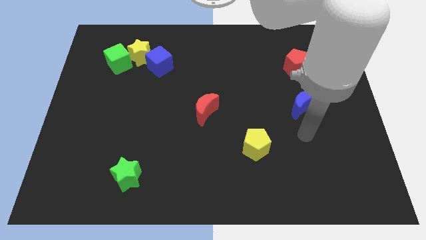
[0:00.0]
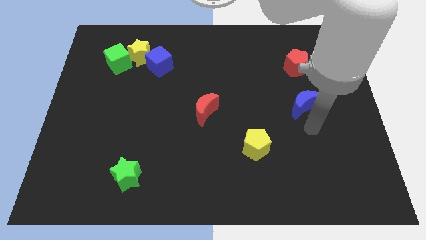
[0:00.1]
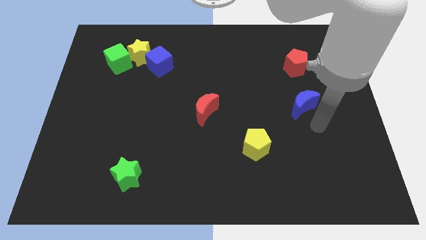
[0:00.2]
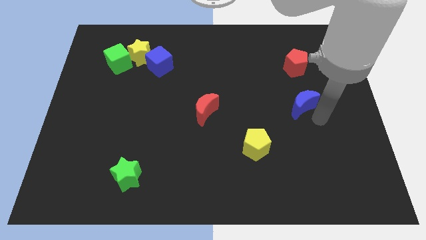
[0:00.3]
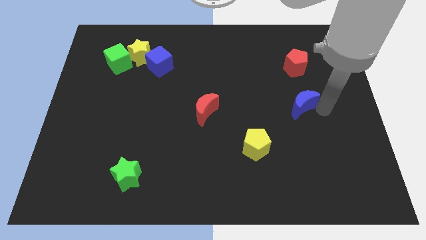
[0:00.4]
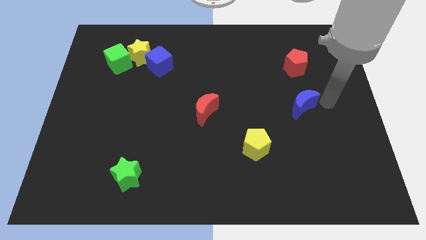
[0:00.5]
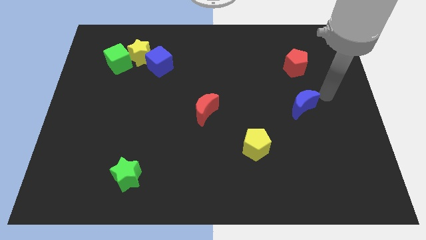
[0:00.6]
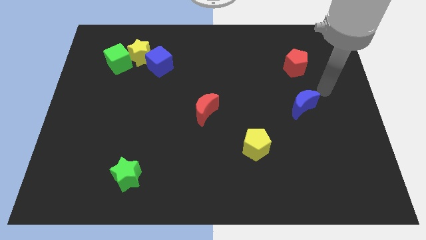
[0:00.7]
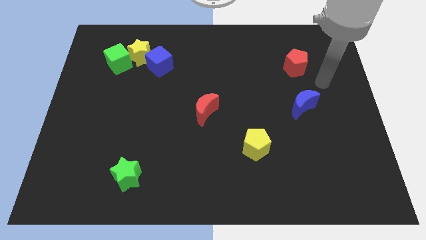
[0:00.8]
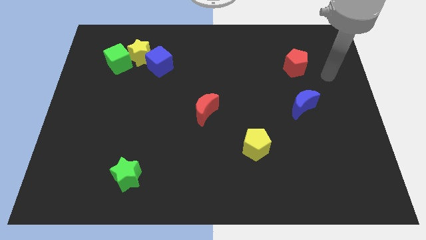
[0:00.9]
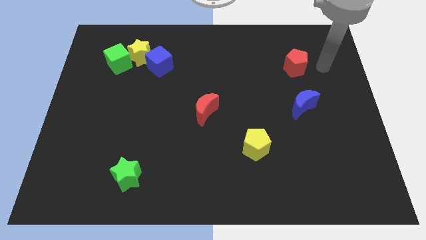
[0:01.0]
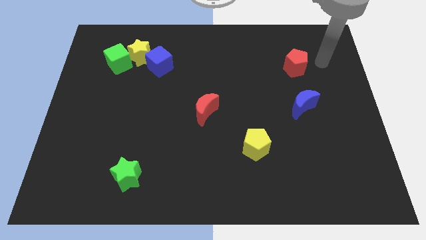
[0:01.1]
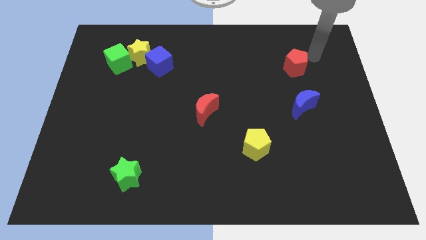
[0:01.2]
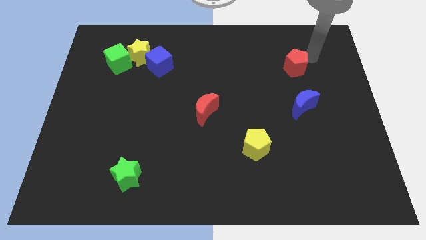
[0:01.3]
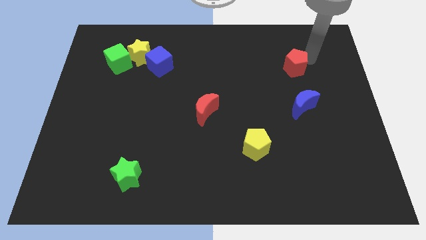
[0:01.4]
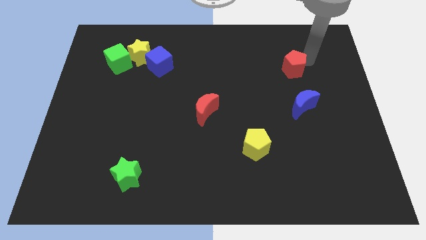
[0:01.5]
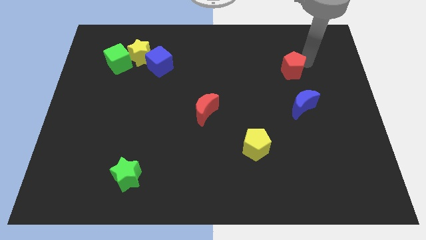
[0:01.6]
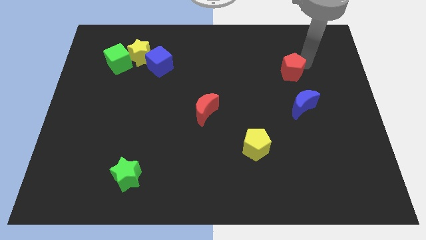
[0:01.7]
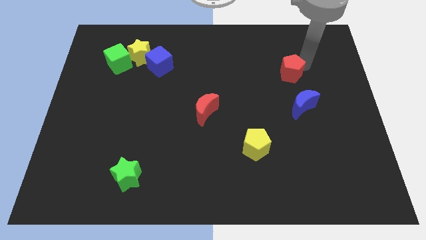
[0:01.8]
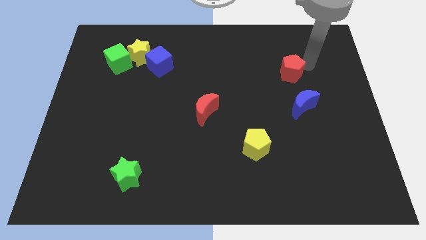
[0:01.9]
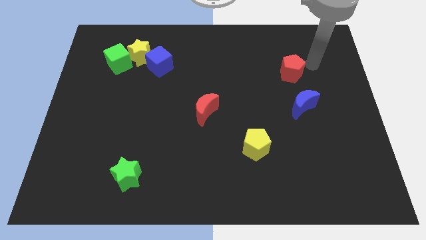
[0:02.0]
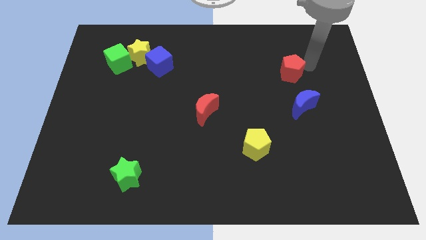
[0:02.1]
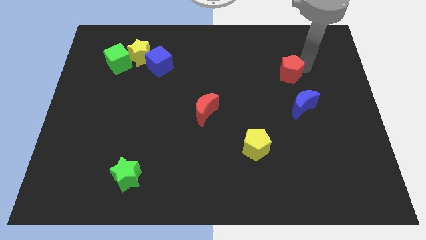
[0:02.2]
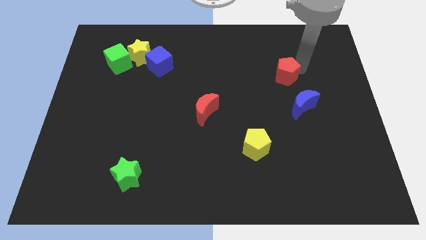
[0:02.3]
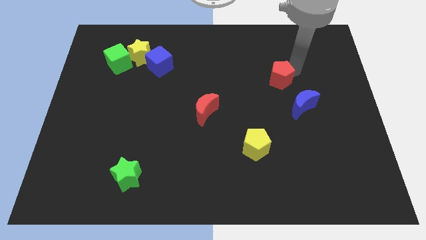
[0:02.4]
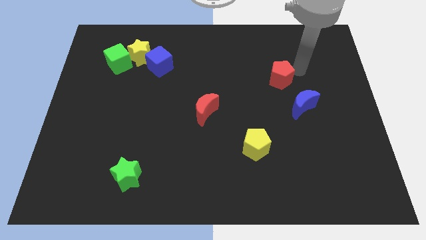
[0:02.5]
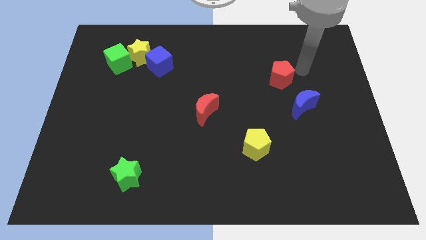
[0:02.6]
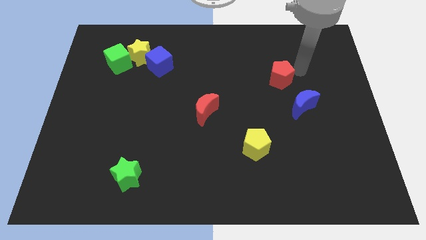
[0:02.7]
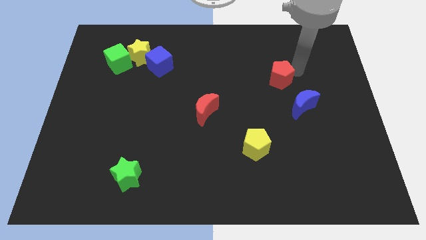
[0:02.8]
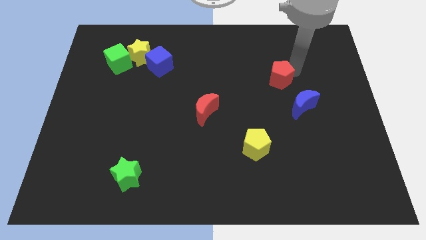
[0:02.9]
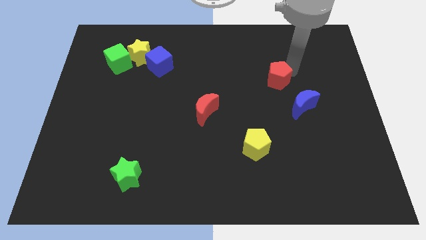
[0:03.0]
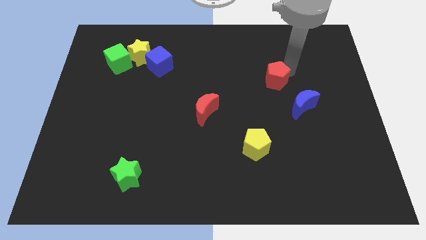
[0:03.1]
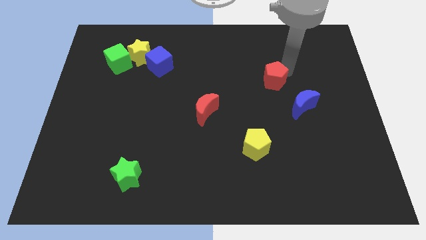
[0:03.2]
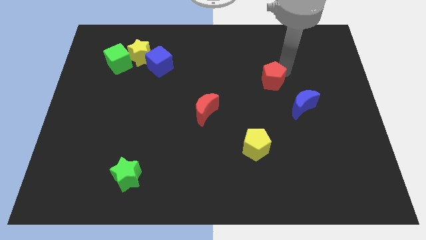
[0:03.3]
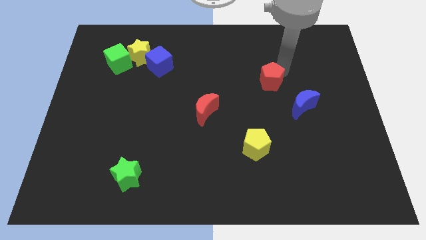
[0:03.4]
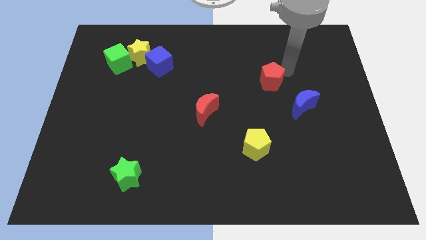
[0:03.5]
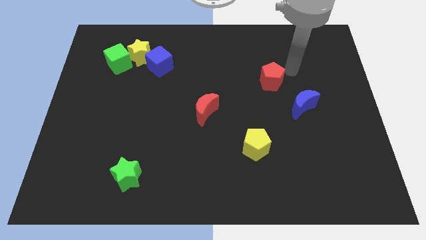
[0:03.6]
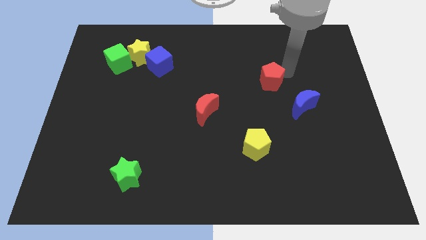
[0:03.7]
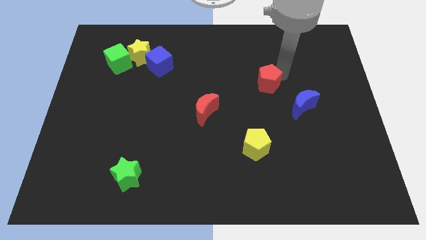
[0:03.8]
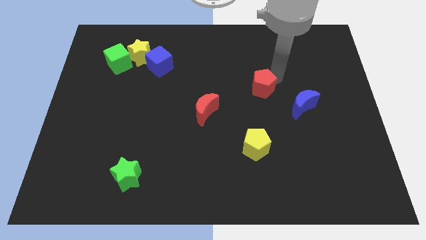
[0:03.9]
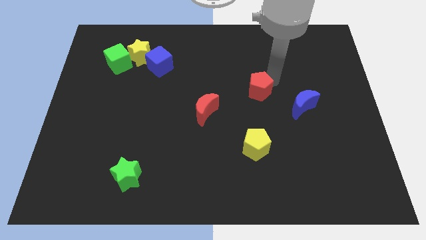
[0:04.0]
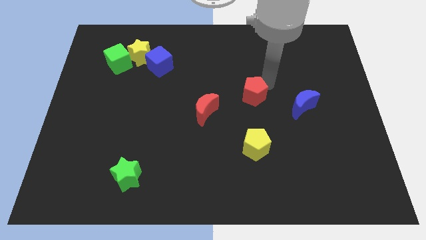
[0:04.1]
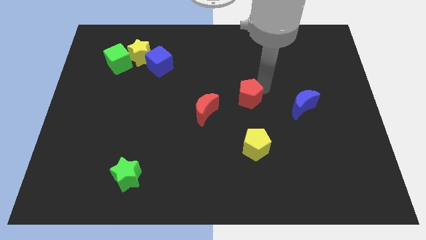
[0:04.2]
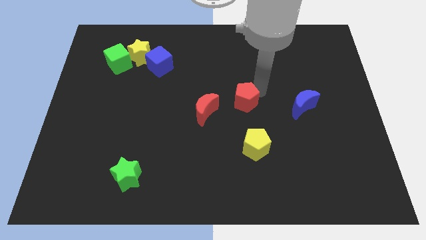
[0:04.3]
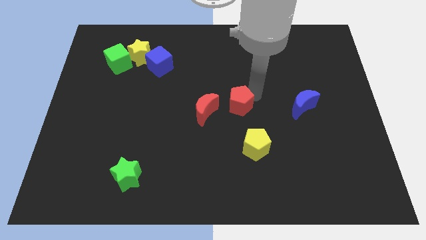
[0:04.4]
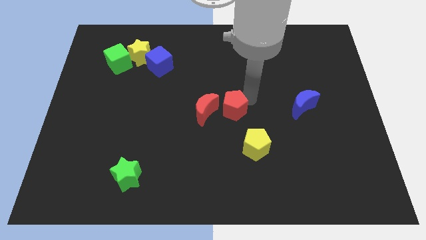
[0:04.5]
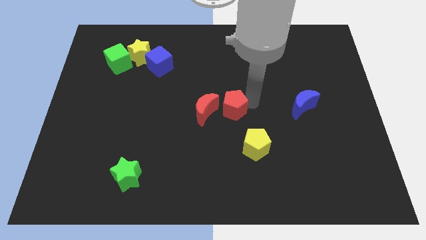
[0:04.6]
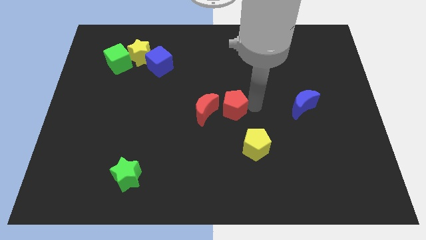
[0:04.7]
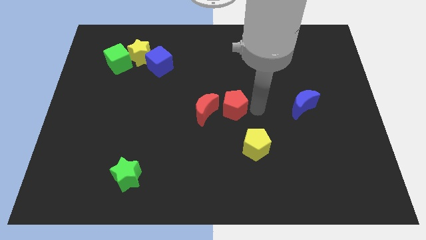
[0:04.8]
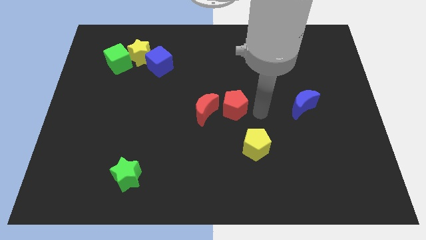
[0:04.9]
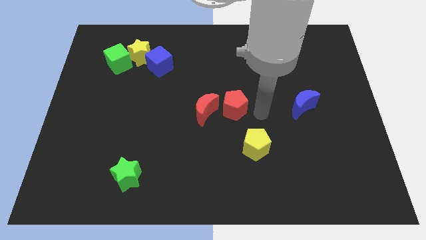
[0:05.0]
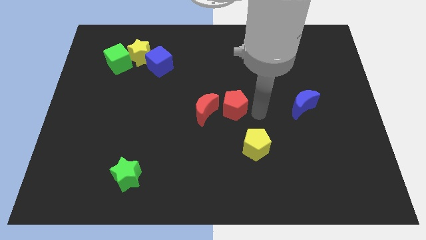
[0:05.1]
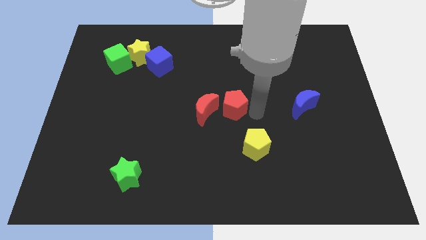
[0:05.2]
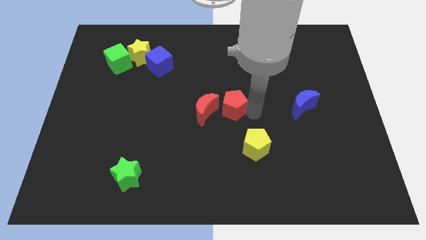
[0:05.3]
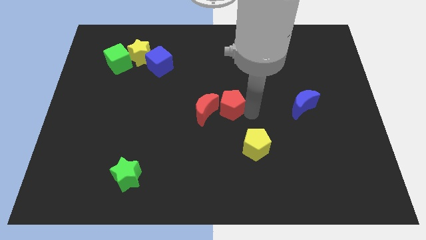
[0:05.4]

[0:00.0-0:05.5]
slide the red pentagon close to the red moon

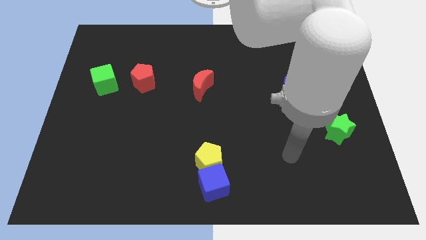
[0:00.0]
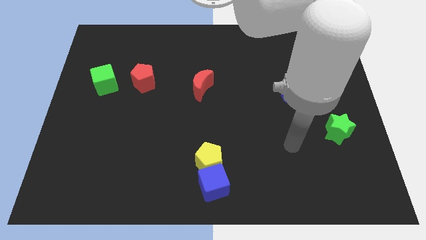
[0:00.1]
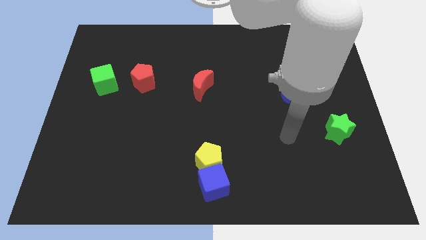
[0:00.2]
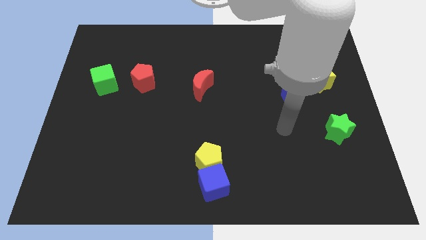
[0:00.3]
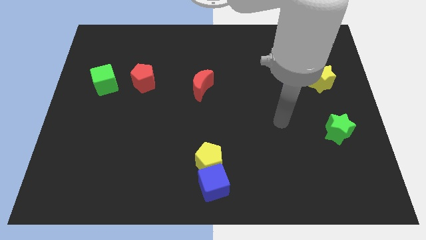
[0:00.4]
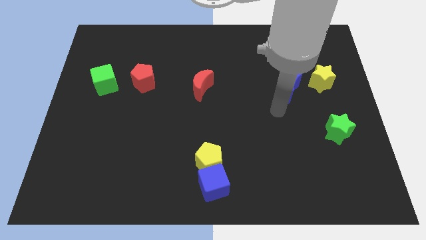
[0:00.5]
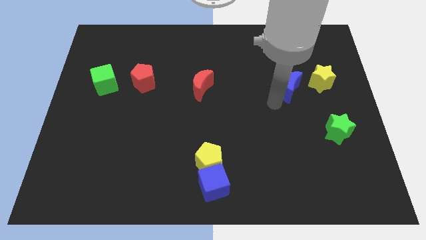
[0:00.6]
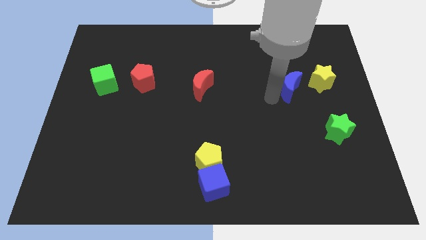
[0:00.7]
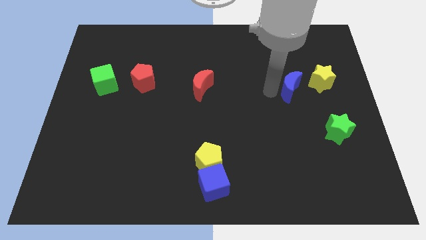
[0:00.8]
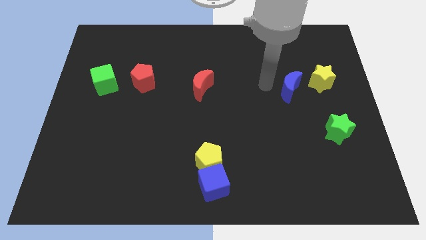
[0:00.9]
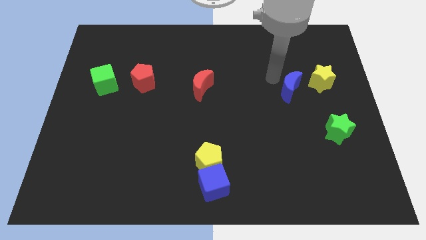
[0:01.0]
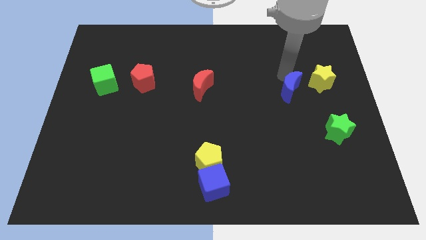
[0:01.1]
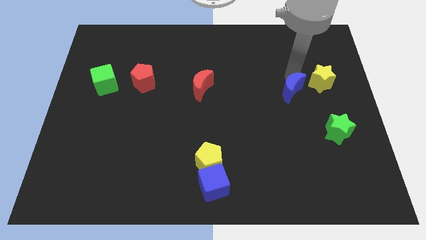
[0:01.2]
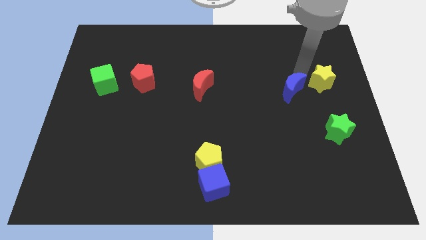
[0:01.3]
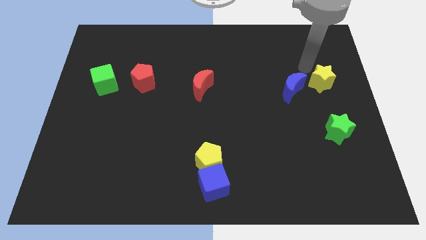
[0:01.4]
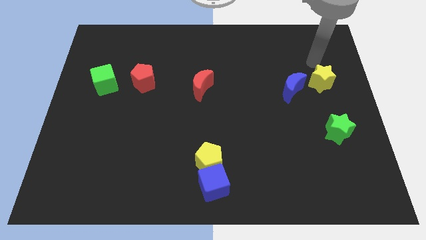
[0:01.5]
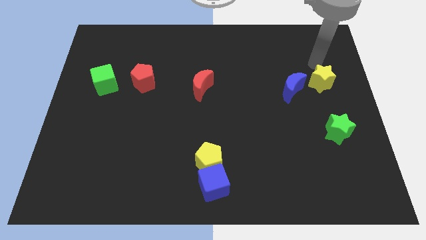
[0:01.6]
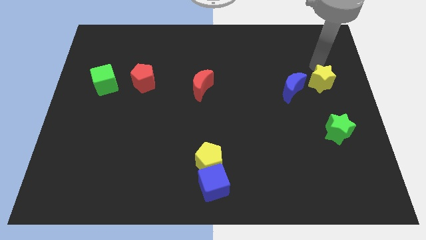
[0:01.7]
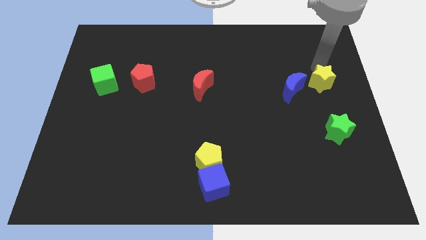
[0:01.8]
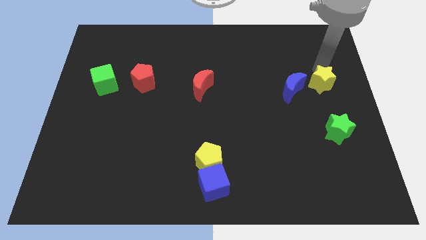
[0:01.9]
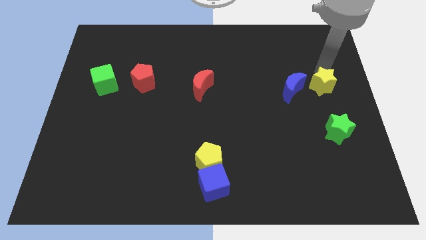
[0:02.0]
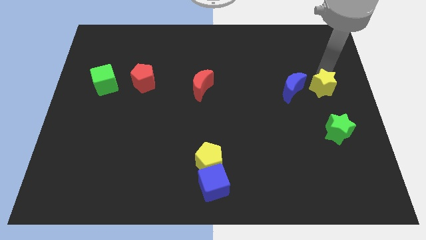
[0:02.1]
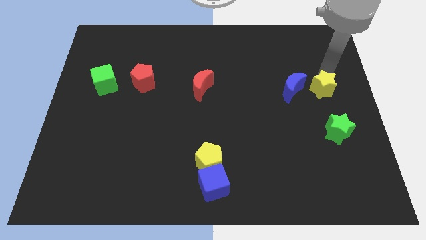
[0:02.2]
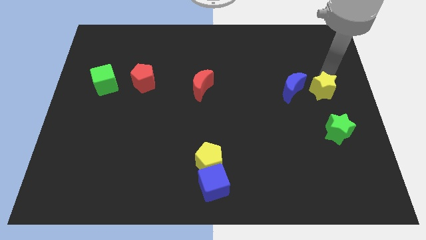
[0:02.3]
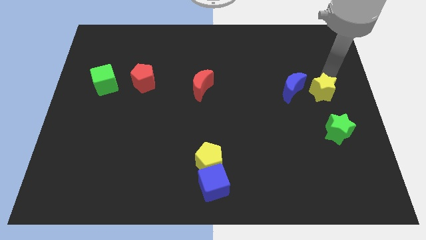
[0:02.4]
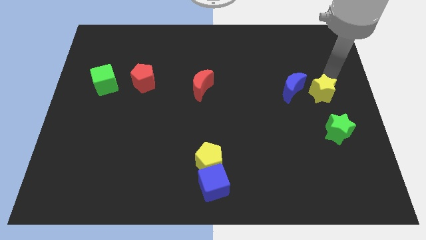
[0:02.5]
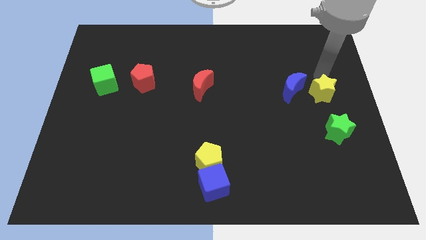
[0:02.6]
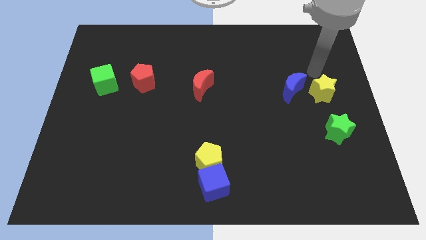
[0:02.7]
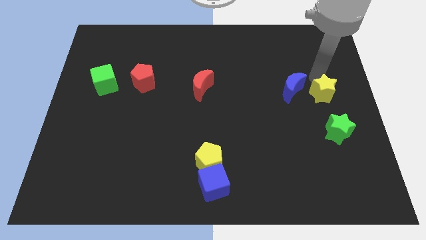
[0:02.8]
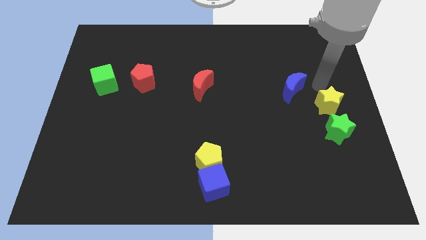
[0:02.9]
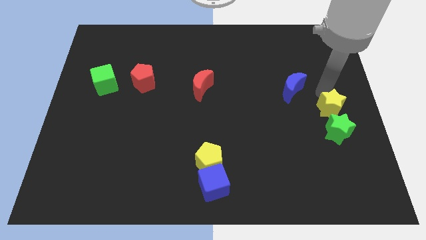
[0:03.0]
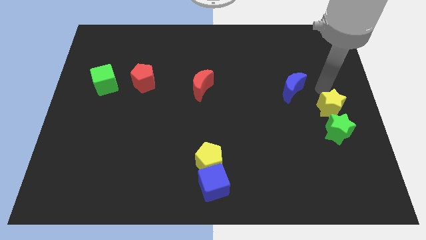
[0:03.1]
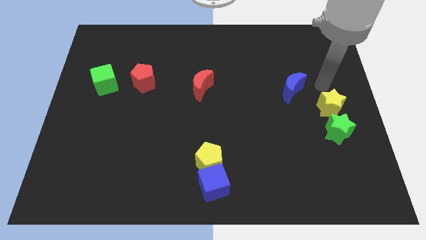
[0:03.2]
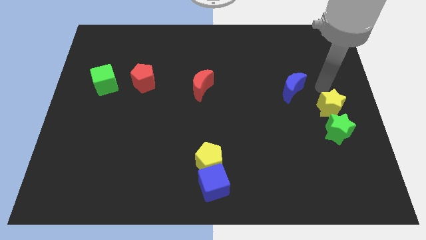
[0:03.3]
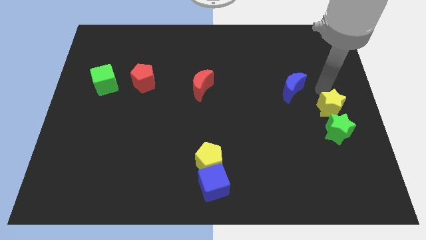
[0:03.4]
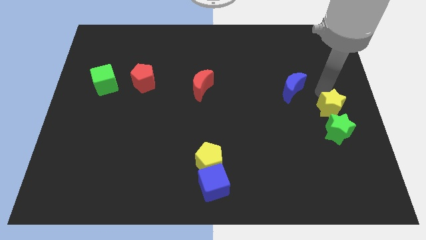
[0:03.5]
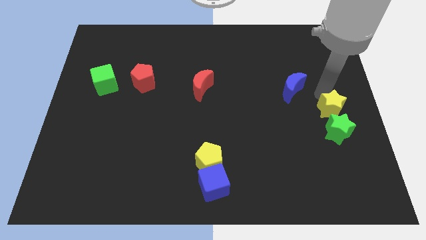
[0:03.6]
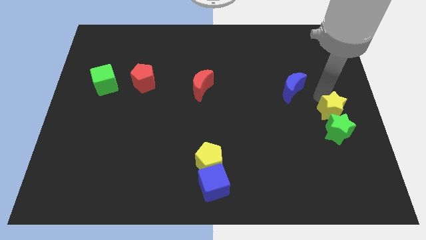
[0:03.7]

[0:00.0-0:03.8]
push the yellow star close to the green star
